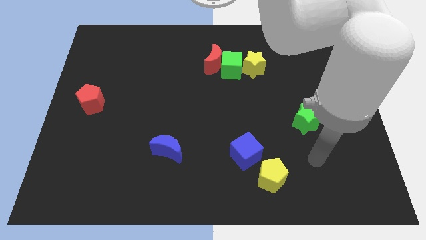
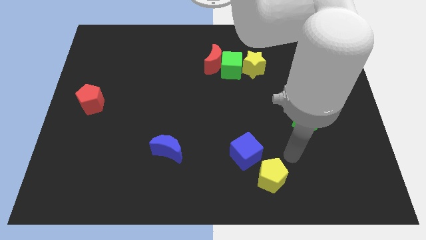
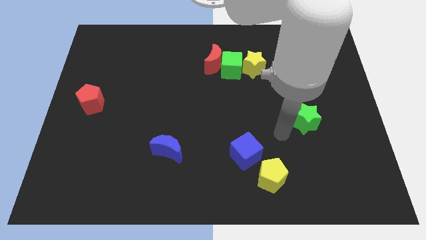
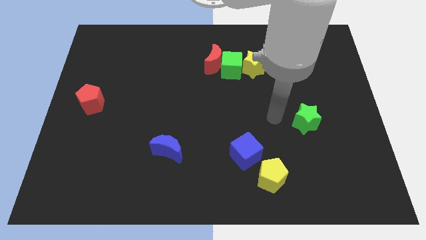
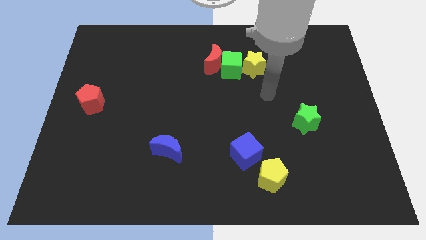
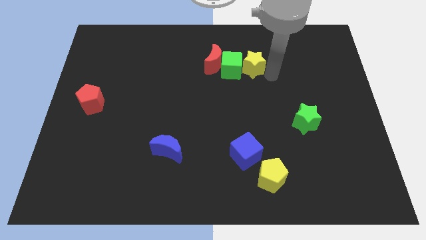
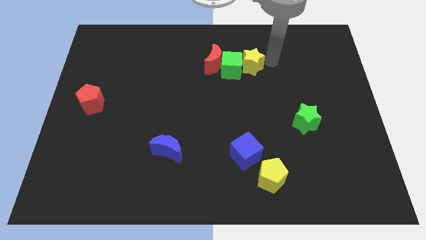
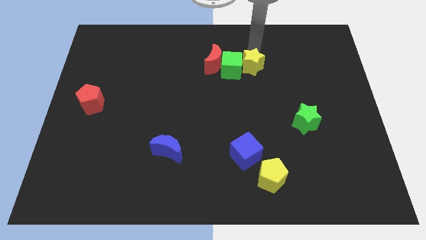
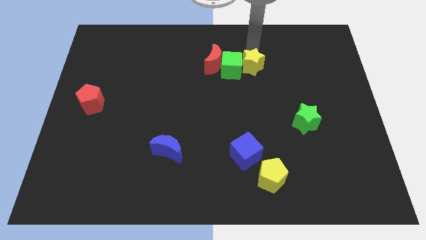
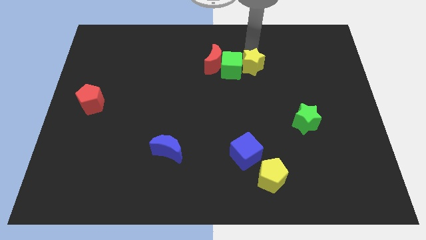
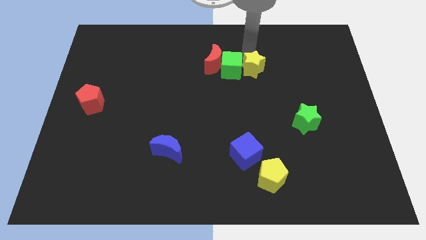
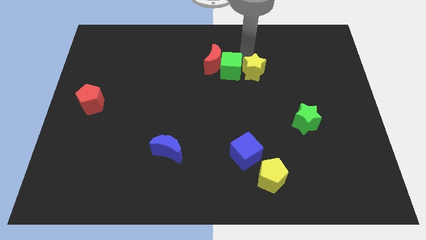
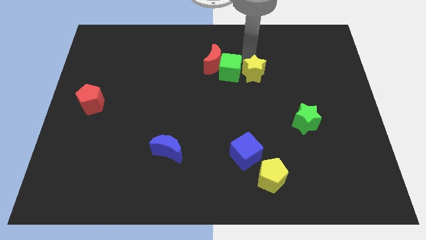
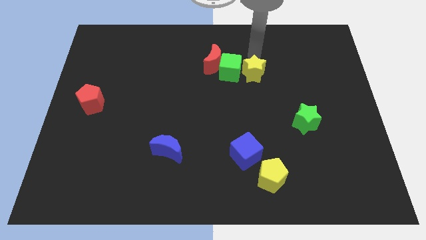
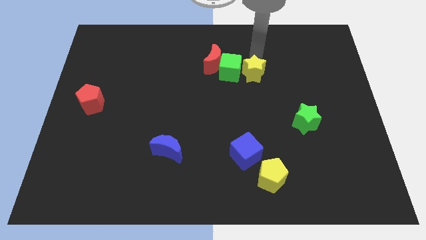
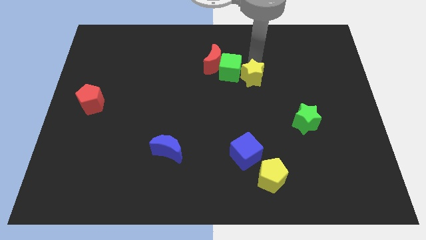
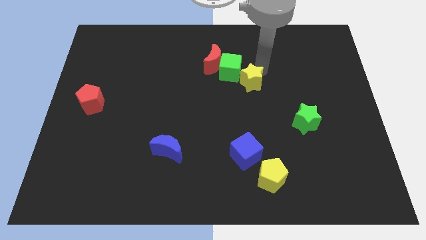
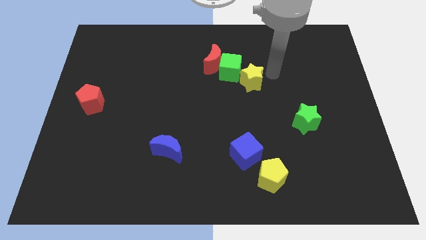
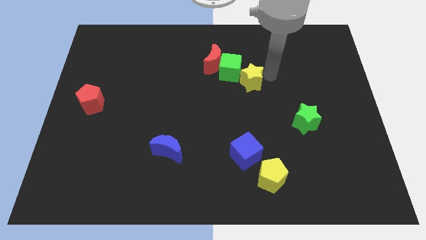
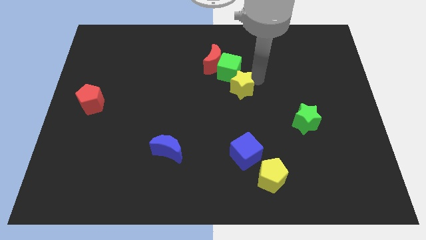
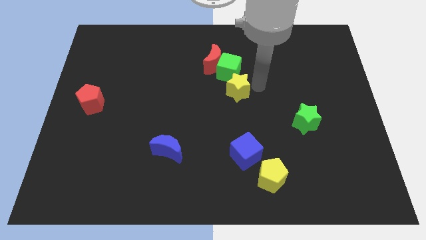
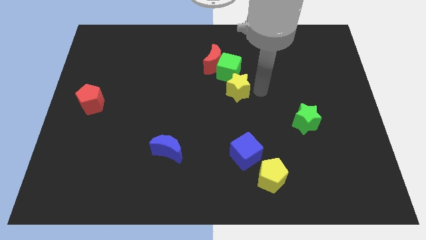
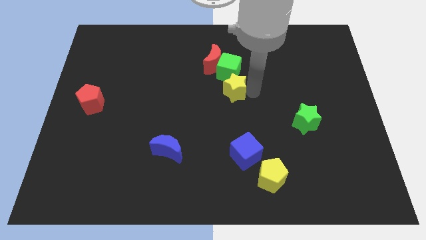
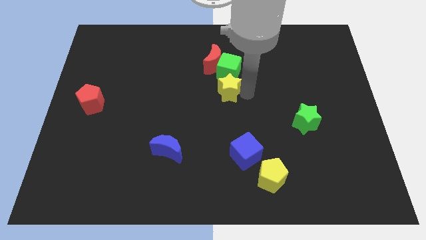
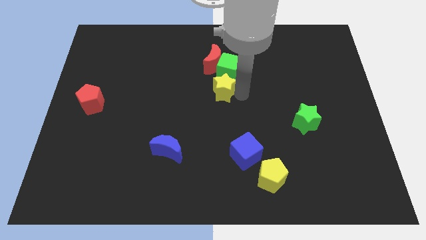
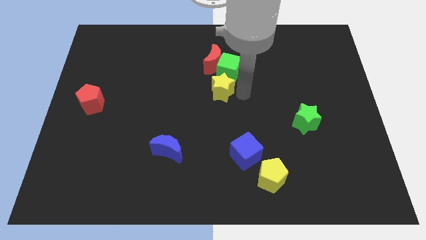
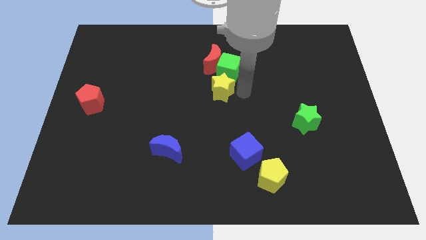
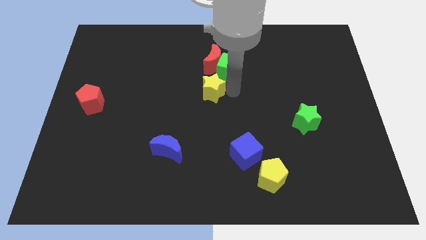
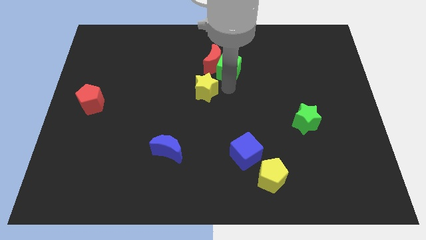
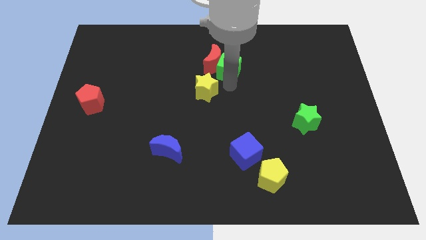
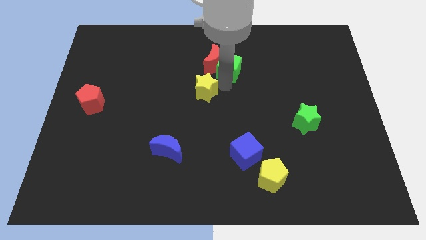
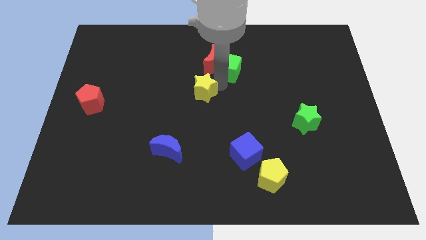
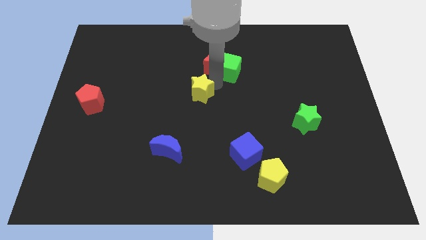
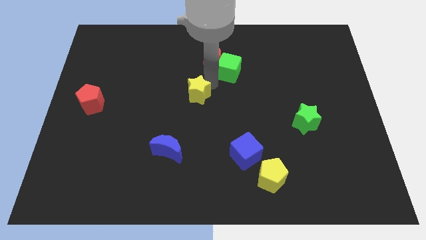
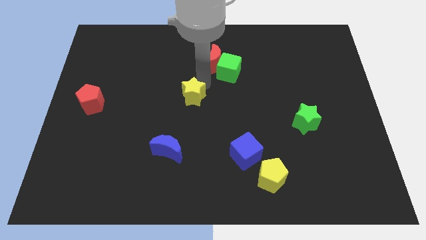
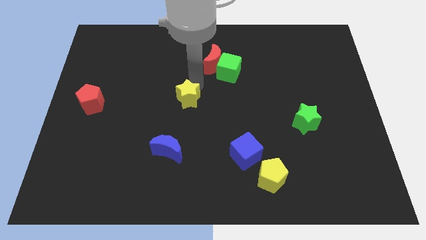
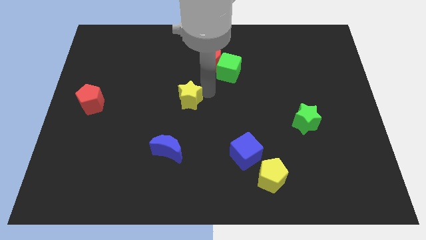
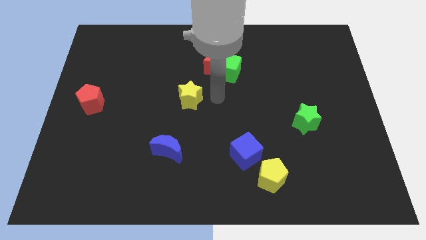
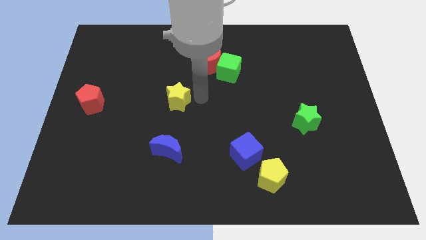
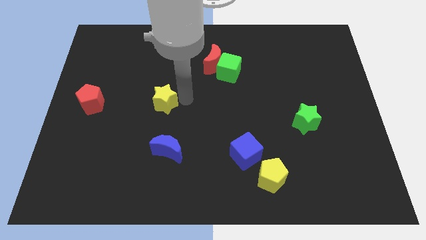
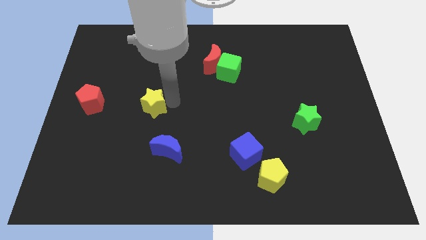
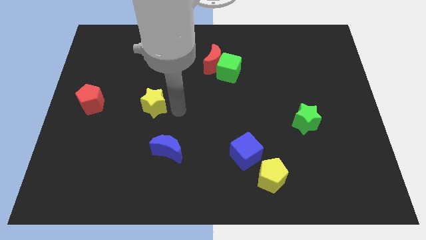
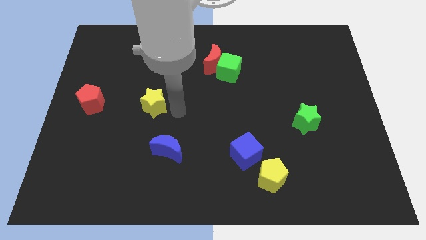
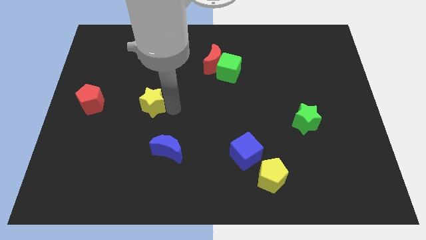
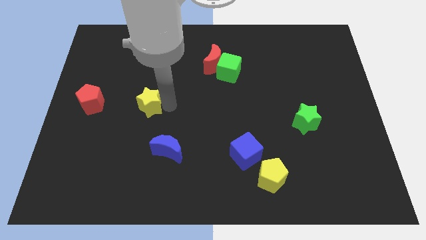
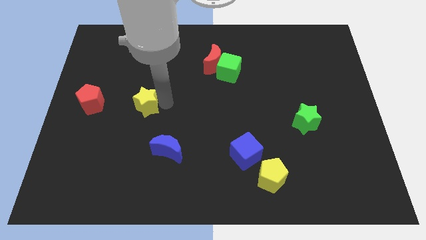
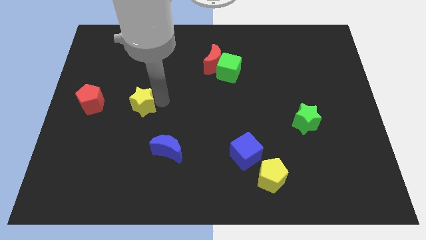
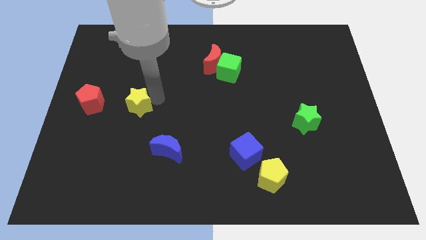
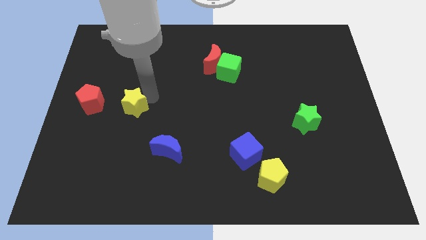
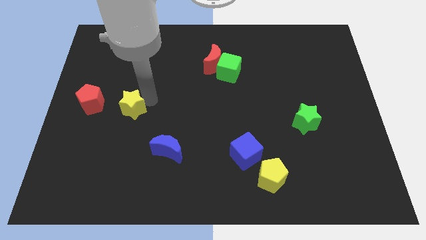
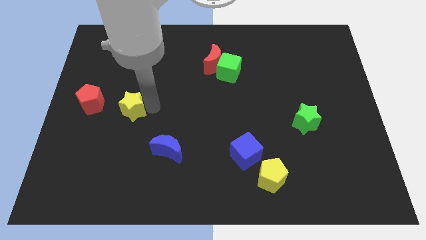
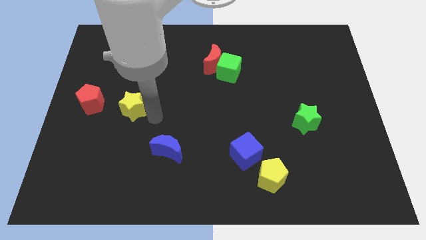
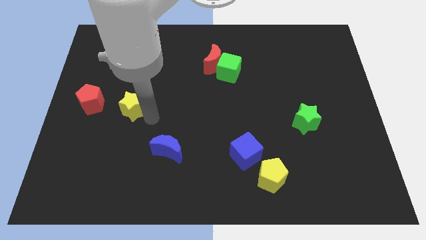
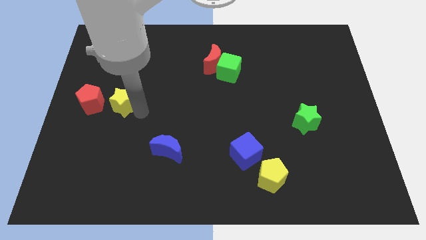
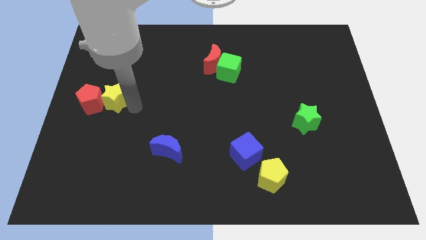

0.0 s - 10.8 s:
slide the yellow star next to the red pentagon

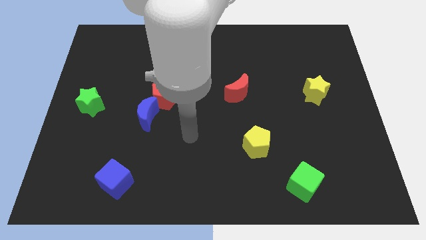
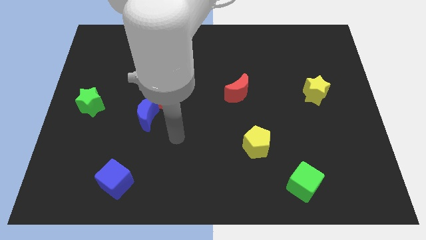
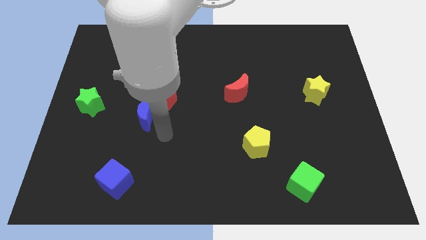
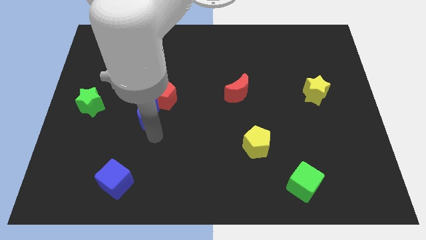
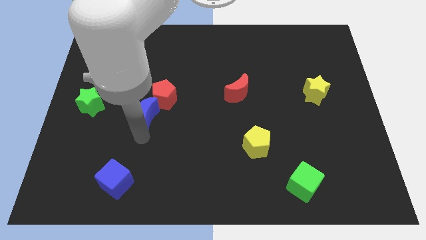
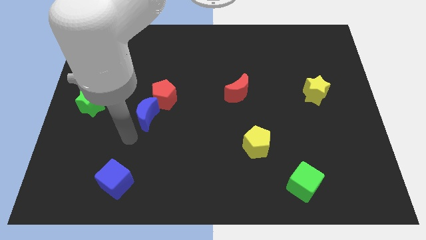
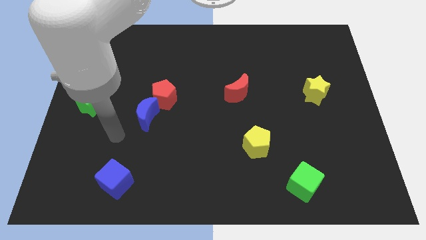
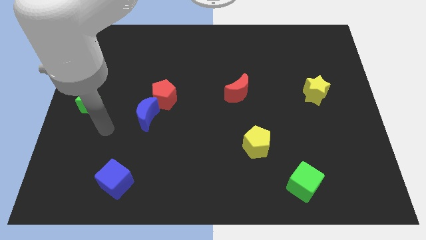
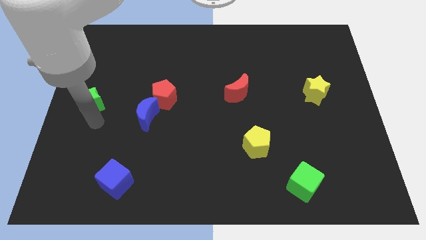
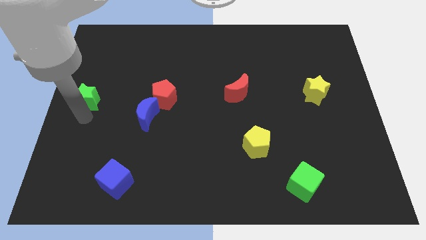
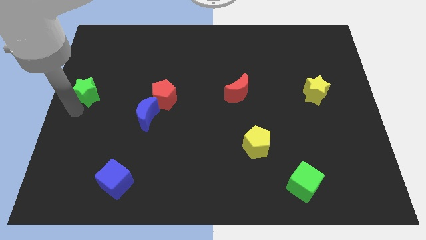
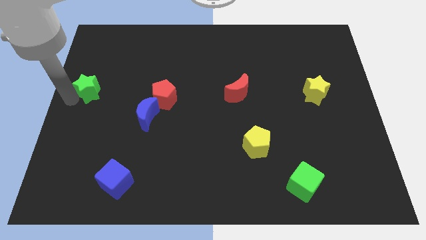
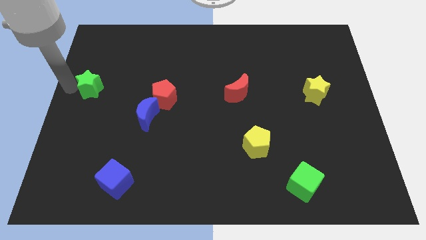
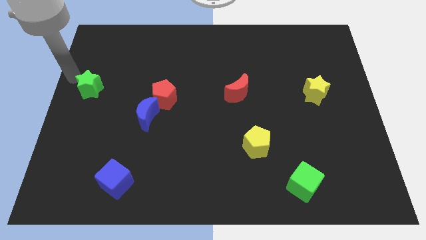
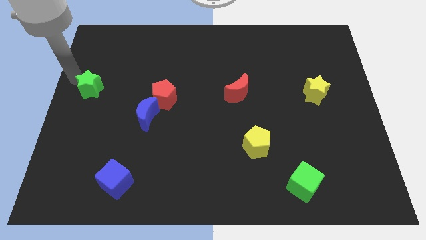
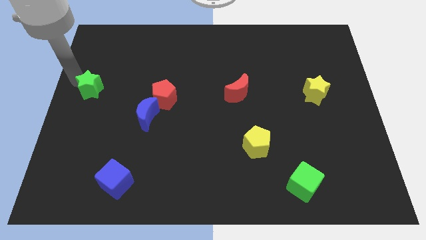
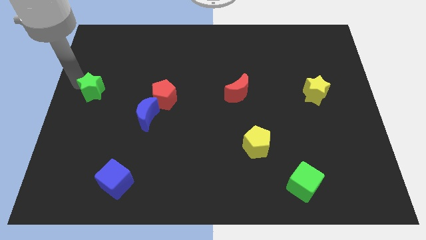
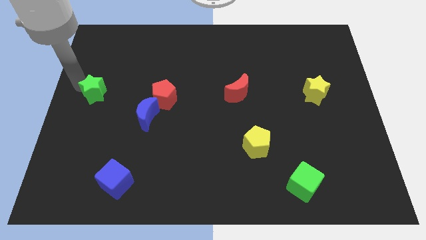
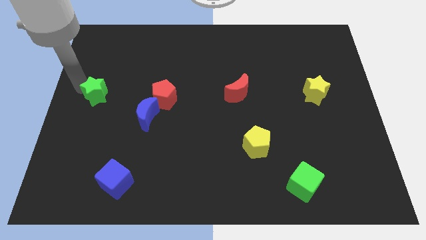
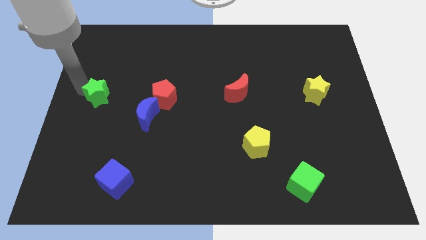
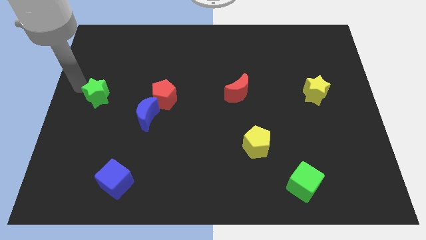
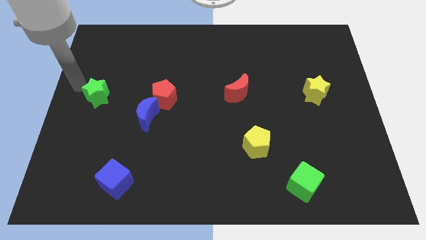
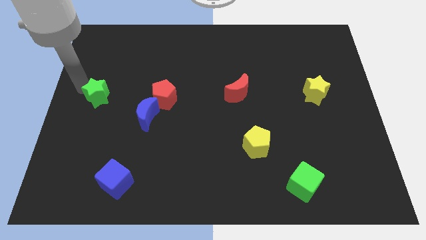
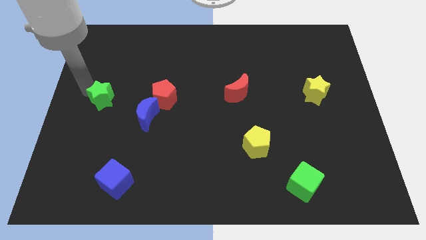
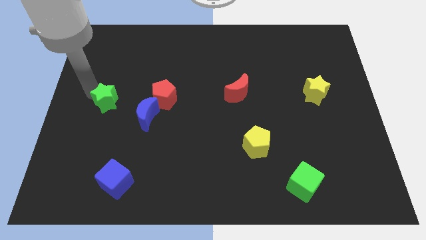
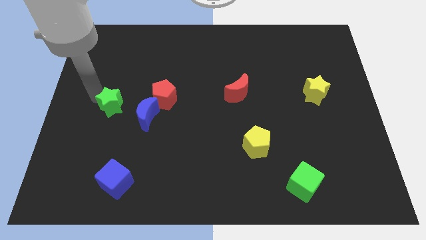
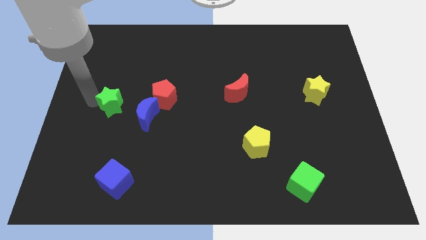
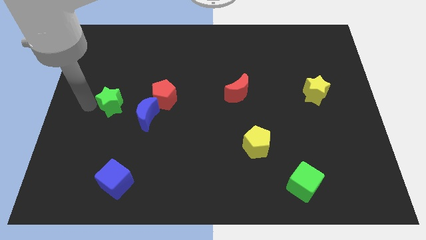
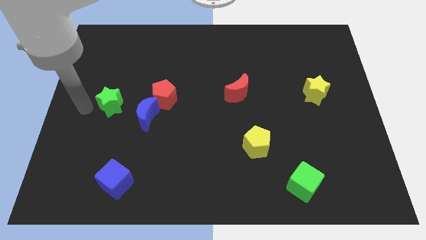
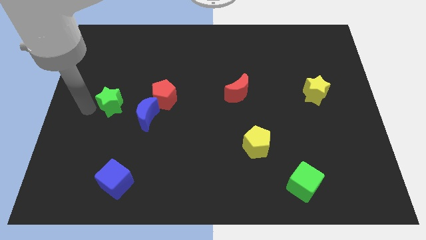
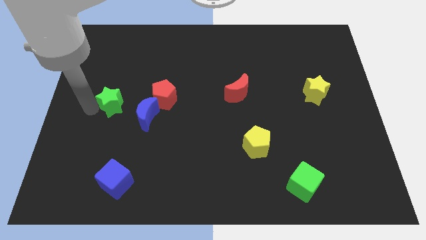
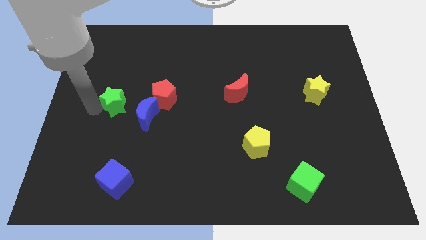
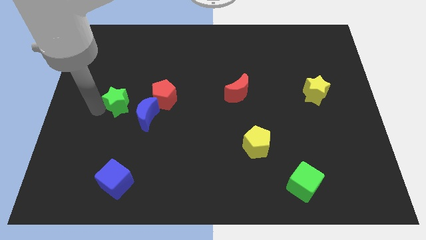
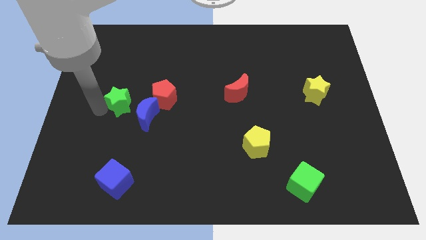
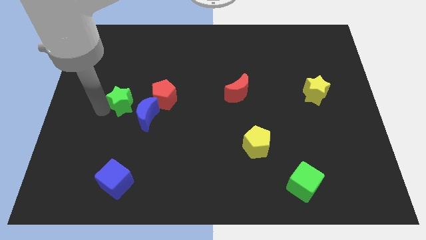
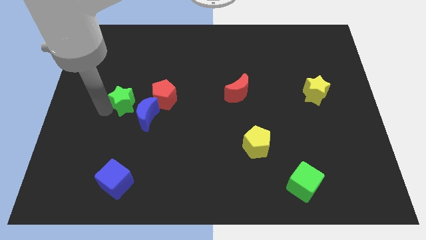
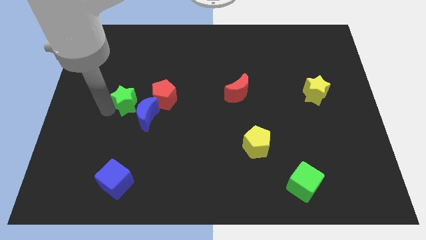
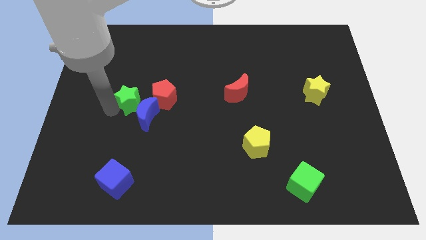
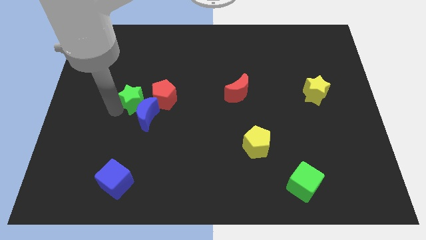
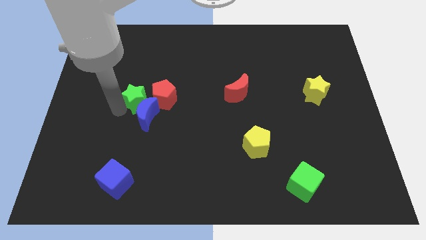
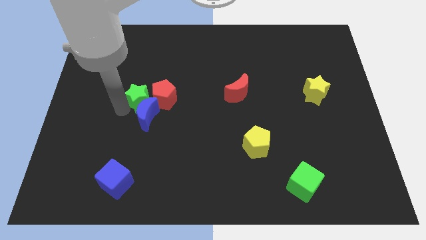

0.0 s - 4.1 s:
slide the green star next to the red pentagon
